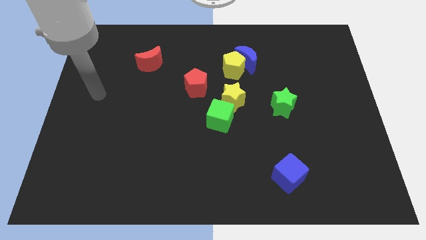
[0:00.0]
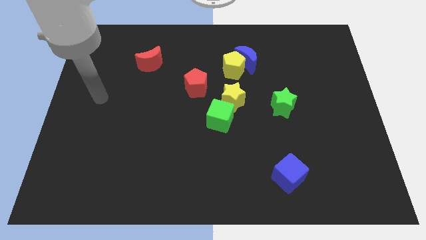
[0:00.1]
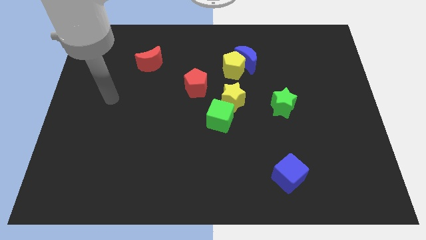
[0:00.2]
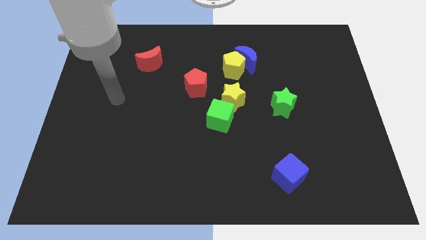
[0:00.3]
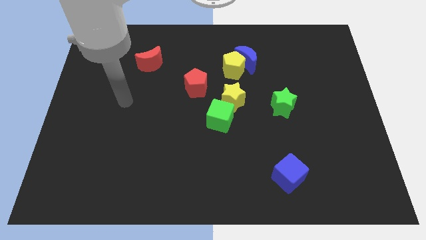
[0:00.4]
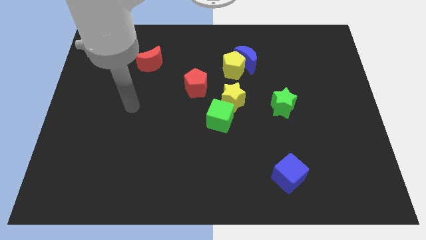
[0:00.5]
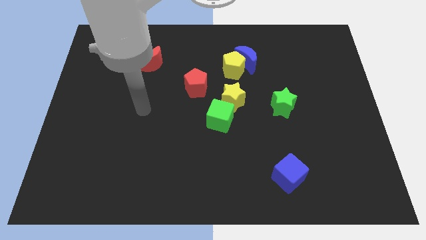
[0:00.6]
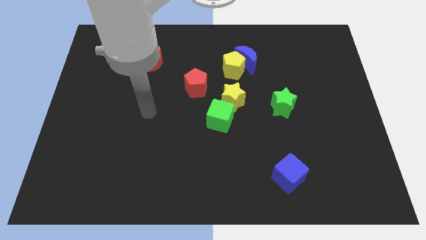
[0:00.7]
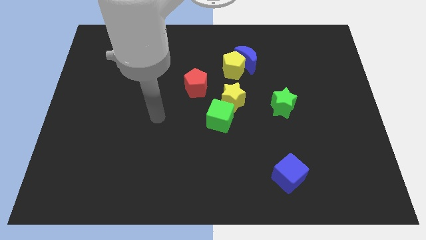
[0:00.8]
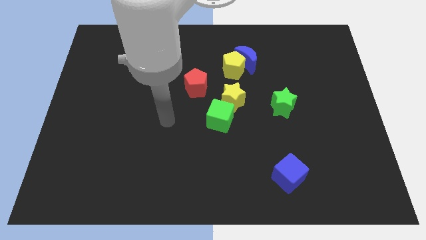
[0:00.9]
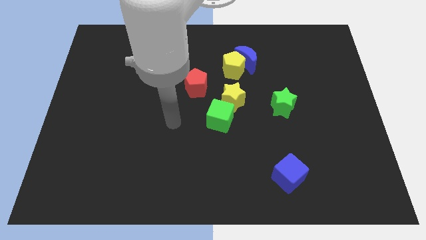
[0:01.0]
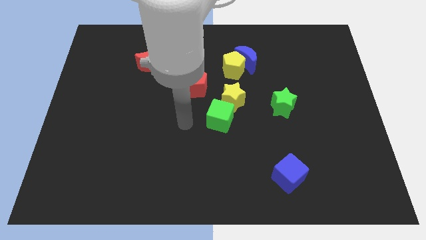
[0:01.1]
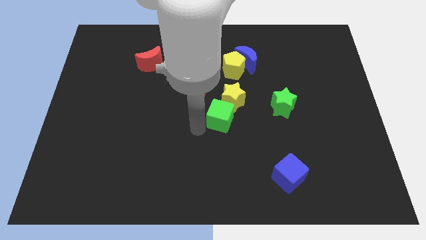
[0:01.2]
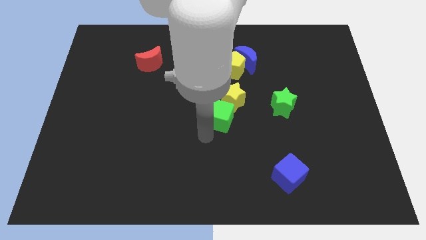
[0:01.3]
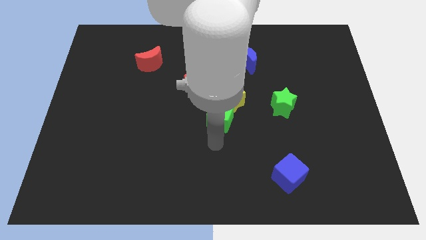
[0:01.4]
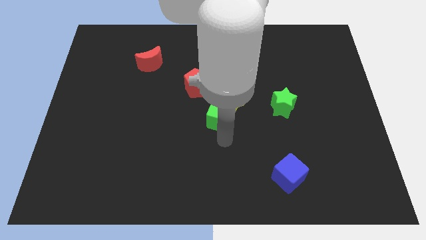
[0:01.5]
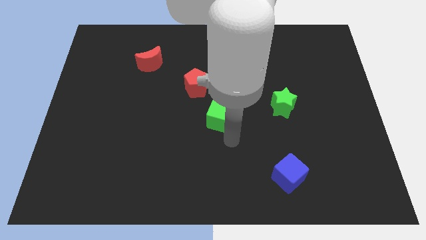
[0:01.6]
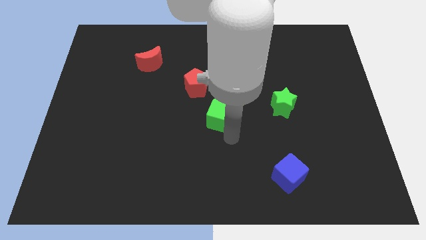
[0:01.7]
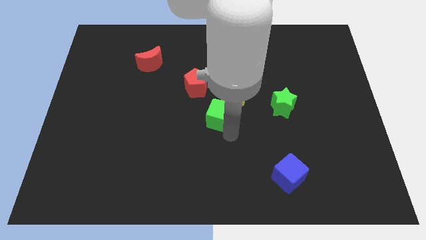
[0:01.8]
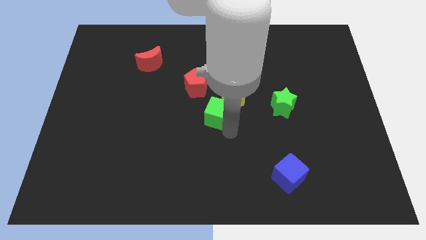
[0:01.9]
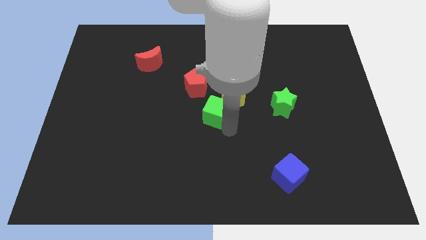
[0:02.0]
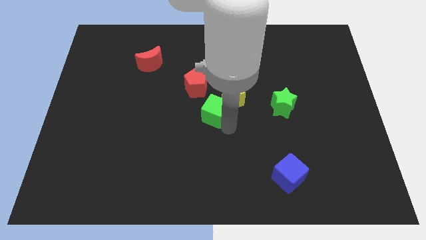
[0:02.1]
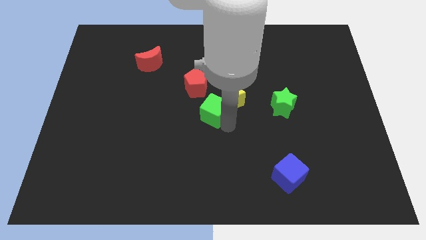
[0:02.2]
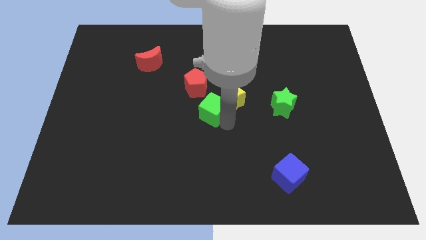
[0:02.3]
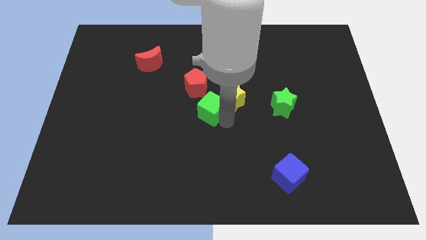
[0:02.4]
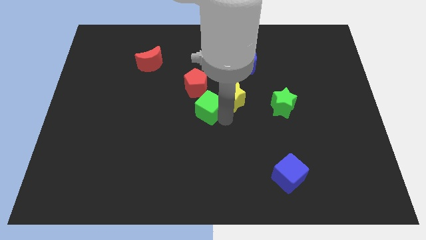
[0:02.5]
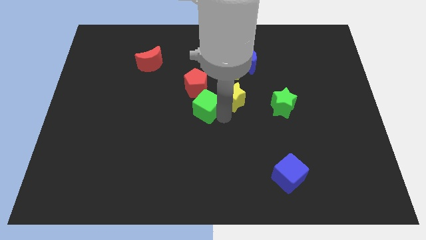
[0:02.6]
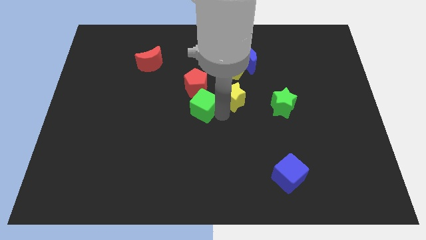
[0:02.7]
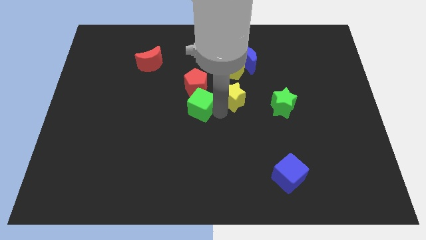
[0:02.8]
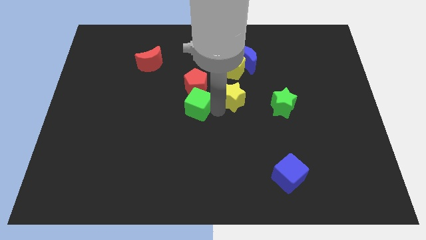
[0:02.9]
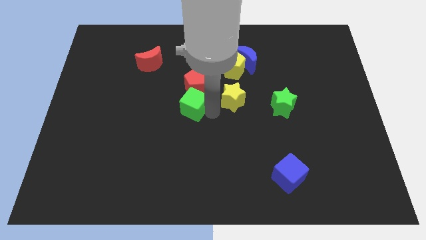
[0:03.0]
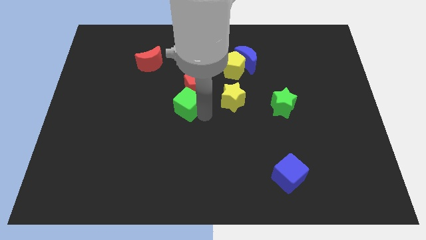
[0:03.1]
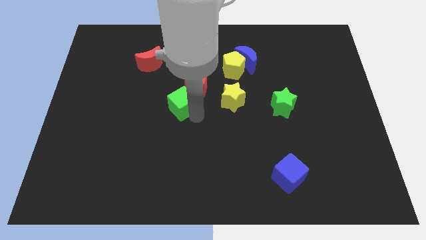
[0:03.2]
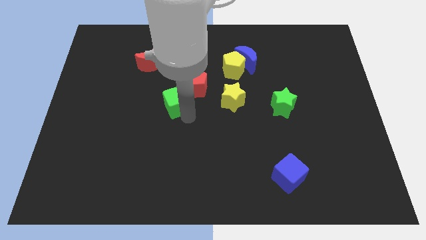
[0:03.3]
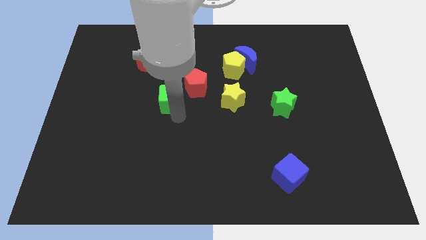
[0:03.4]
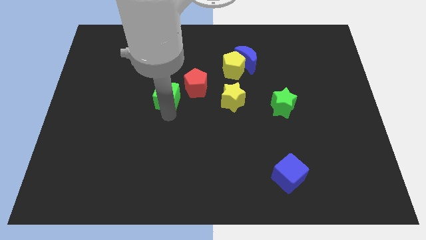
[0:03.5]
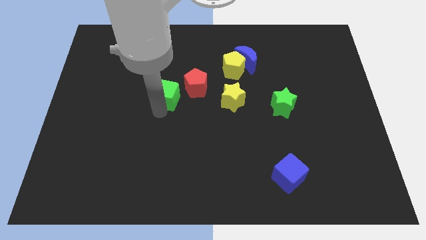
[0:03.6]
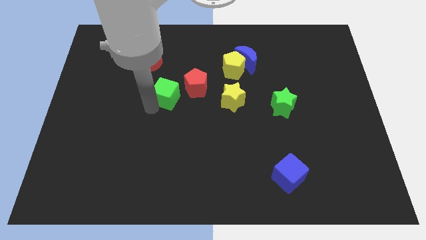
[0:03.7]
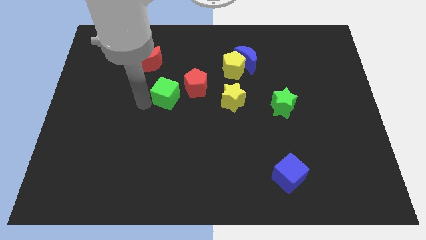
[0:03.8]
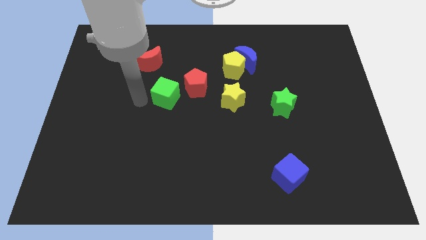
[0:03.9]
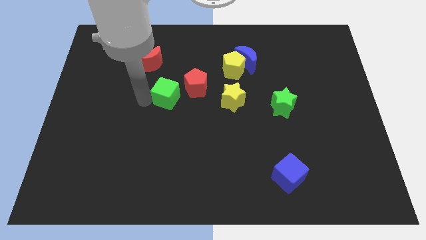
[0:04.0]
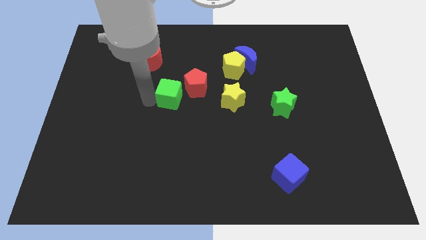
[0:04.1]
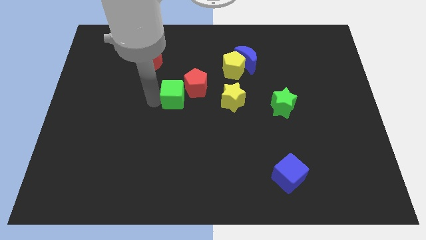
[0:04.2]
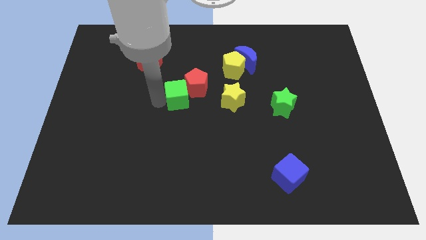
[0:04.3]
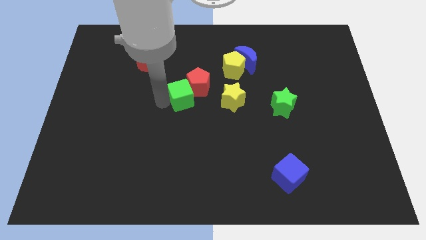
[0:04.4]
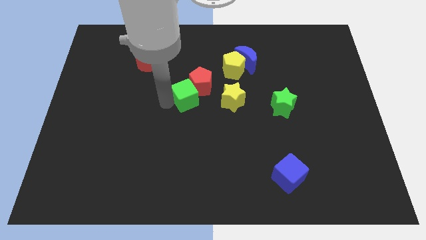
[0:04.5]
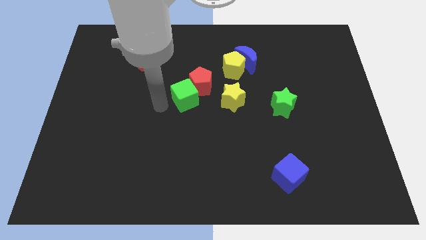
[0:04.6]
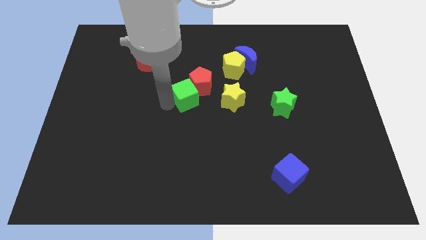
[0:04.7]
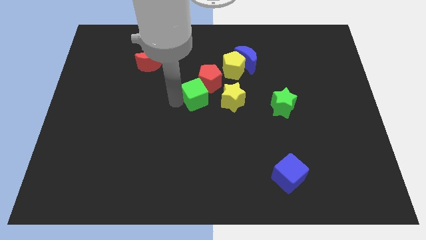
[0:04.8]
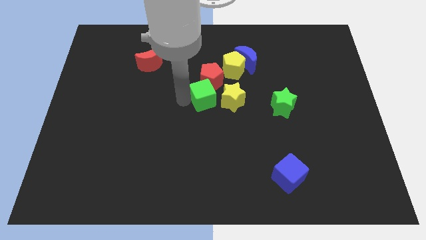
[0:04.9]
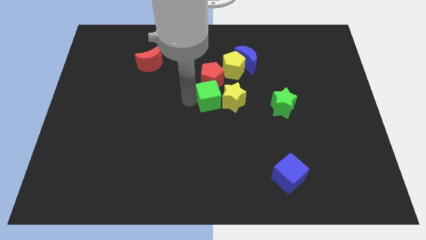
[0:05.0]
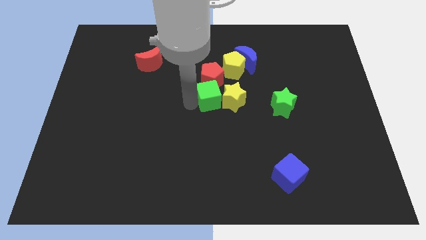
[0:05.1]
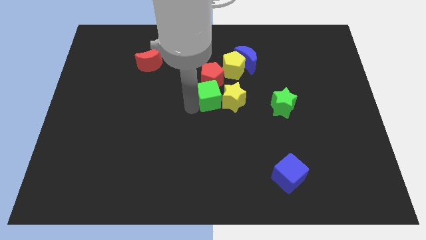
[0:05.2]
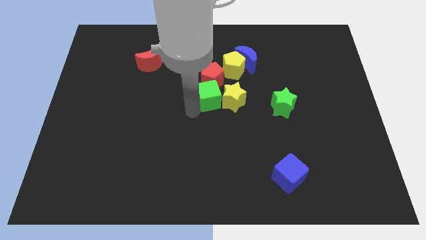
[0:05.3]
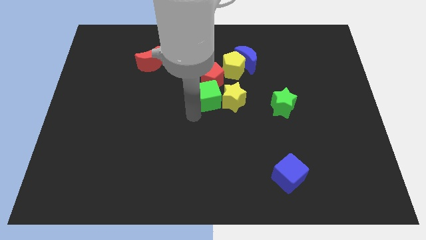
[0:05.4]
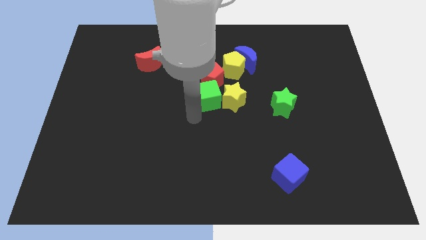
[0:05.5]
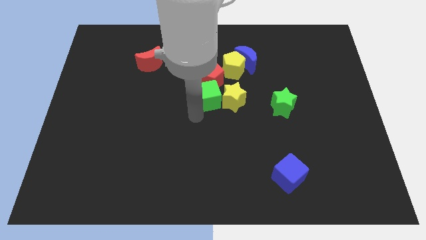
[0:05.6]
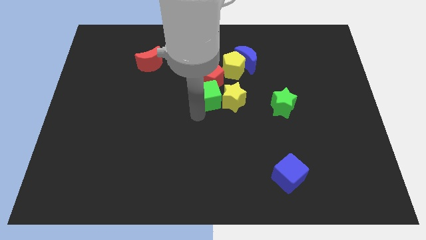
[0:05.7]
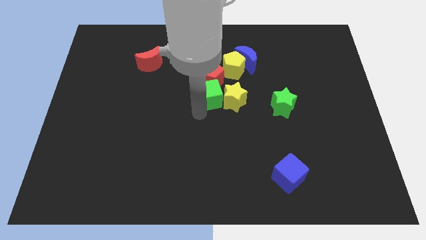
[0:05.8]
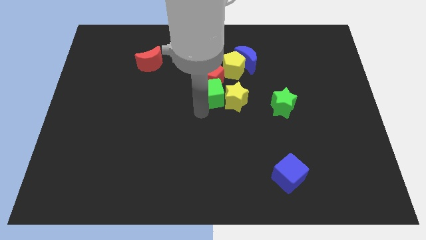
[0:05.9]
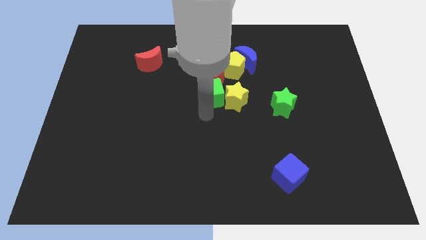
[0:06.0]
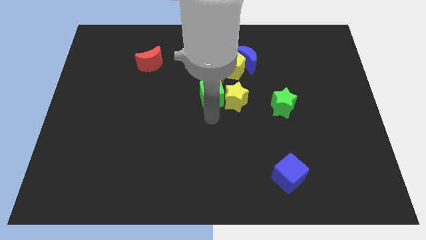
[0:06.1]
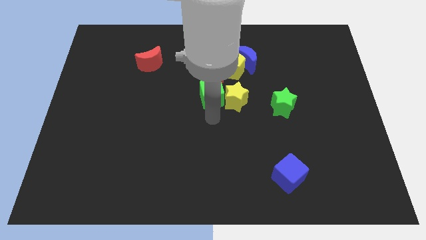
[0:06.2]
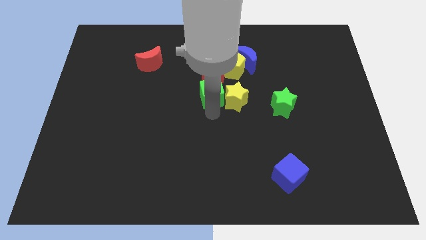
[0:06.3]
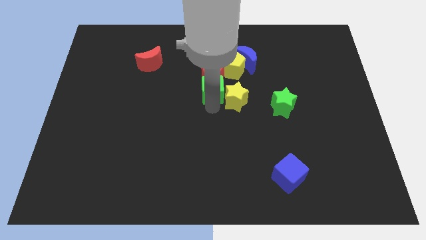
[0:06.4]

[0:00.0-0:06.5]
push the green cube a little bit upwards

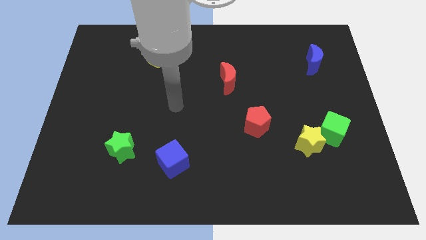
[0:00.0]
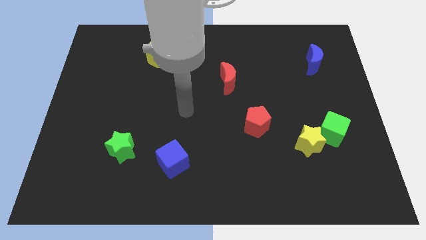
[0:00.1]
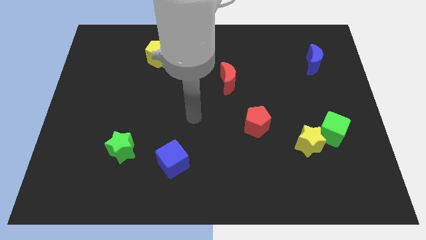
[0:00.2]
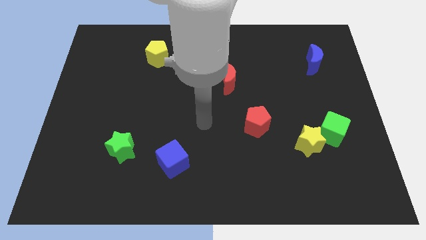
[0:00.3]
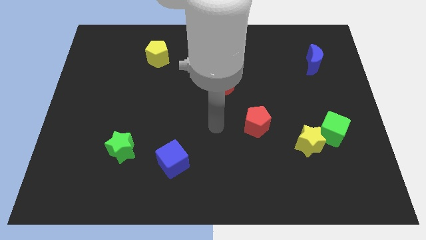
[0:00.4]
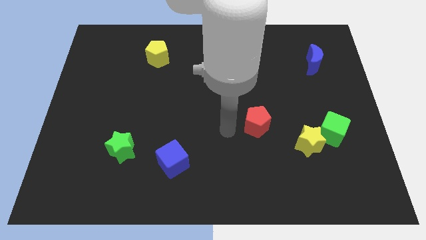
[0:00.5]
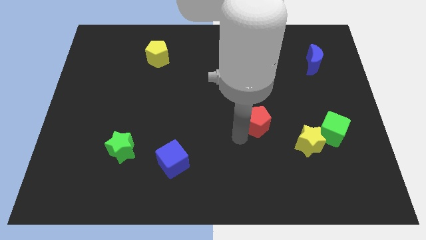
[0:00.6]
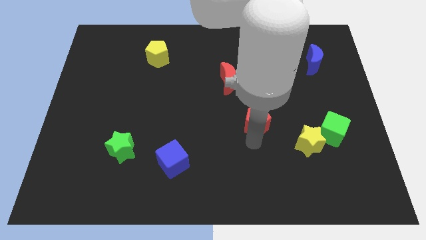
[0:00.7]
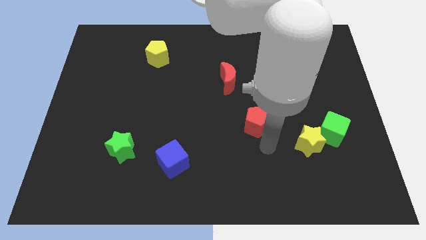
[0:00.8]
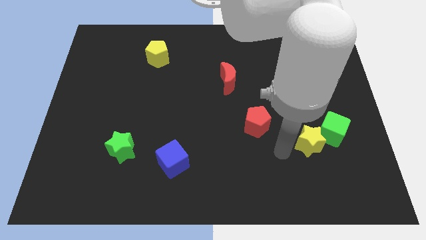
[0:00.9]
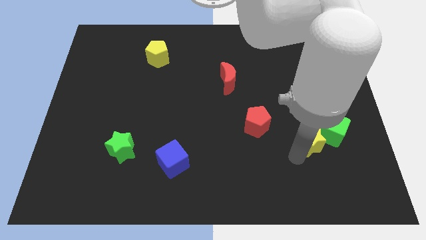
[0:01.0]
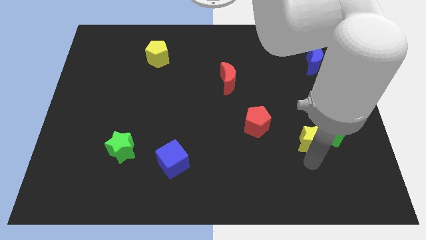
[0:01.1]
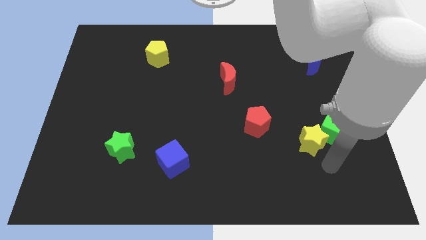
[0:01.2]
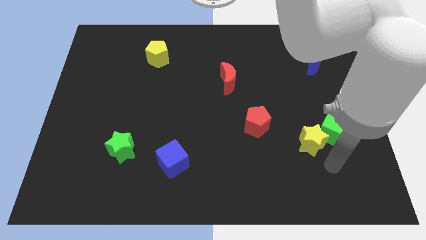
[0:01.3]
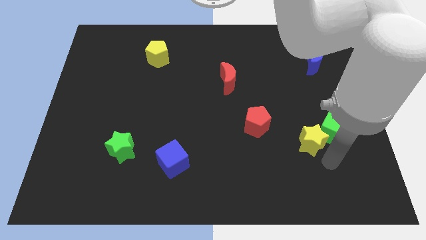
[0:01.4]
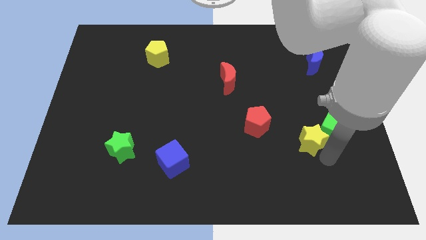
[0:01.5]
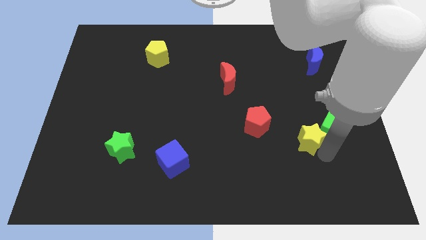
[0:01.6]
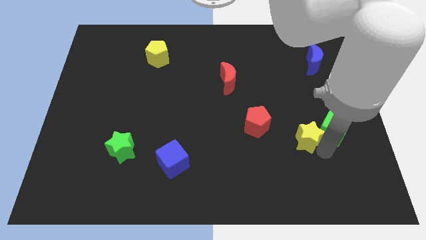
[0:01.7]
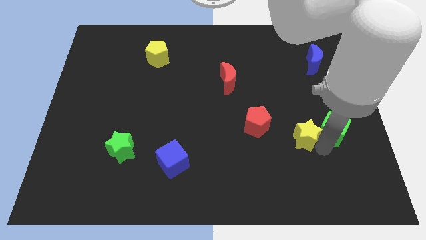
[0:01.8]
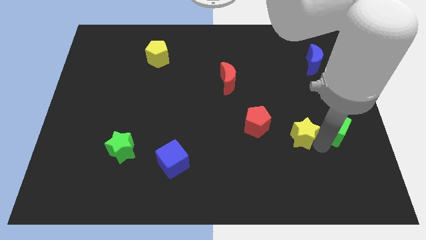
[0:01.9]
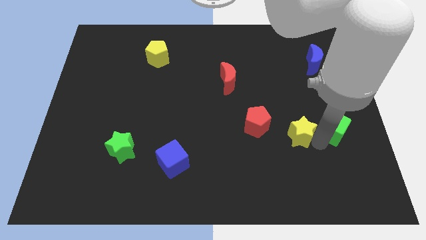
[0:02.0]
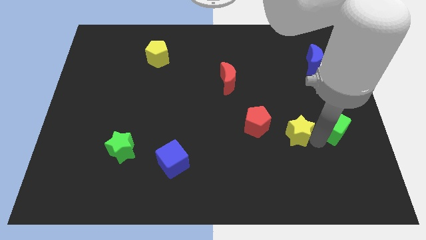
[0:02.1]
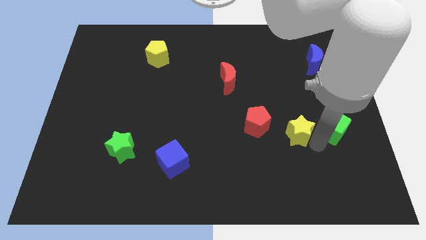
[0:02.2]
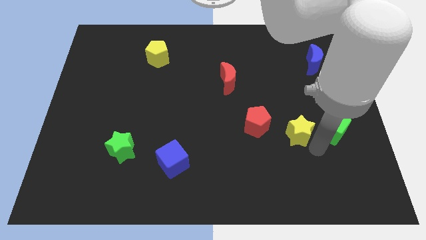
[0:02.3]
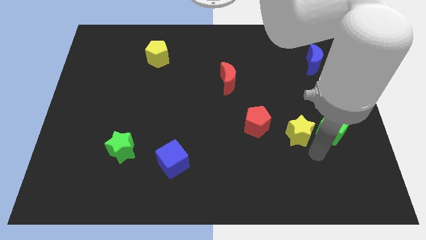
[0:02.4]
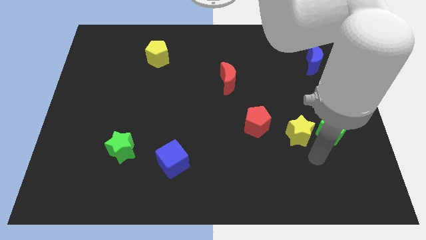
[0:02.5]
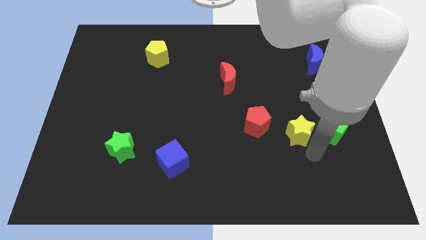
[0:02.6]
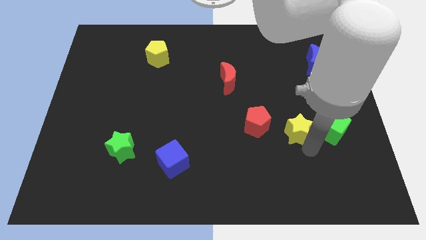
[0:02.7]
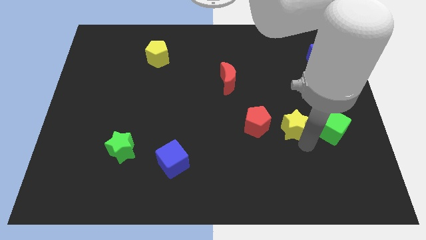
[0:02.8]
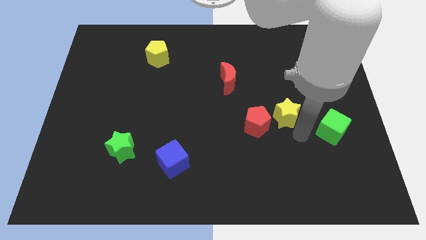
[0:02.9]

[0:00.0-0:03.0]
push the yellow star diagonally upwards and to the left slightly
